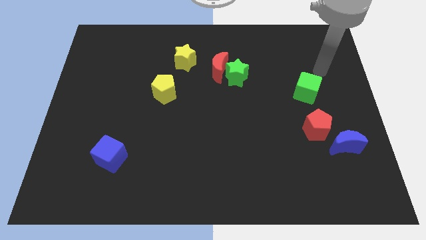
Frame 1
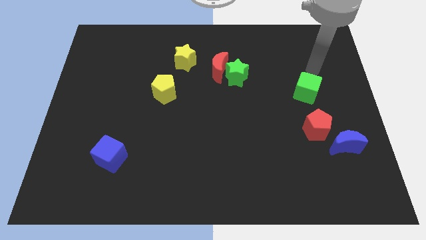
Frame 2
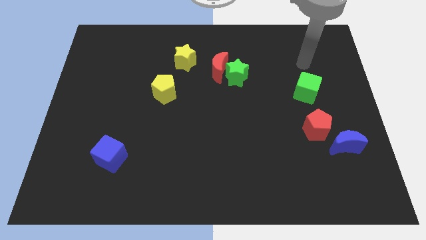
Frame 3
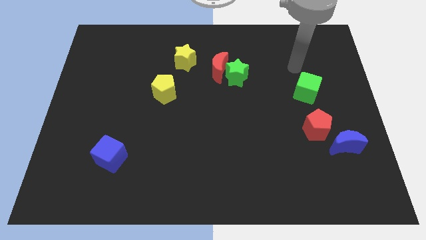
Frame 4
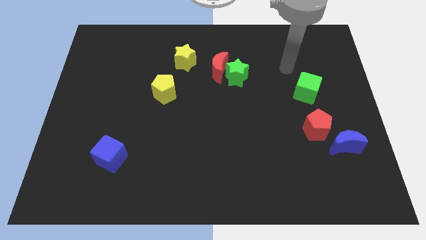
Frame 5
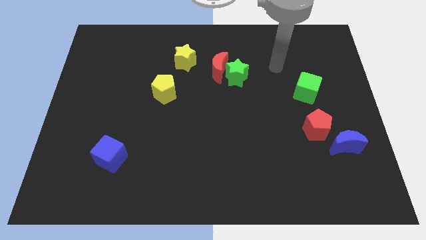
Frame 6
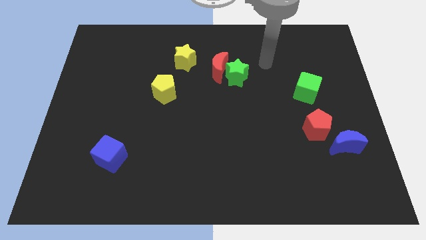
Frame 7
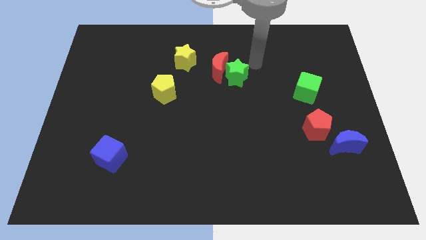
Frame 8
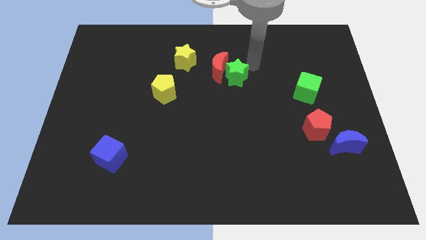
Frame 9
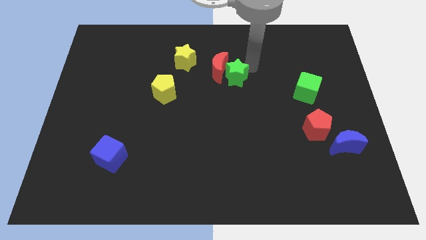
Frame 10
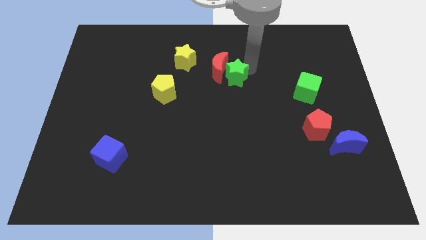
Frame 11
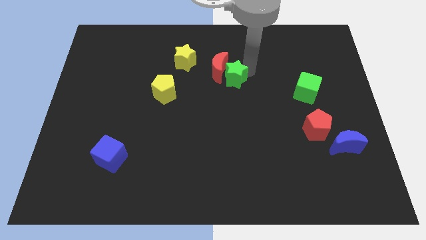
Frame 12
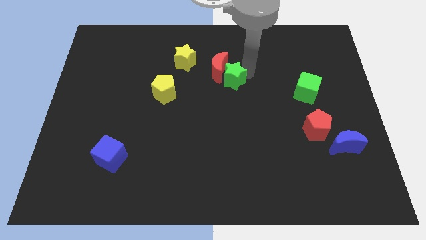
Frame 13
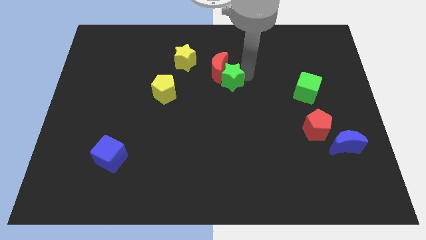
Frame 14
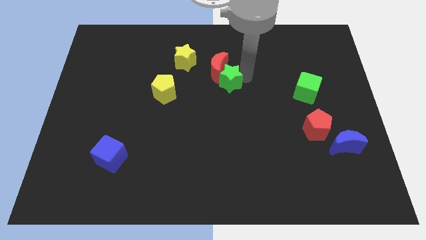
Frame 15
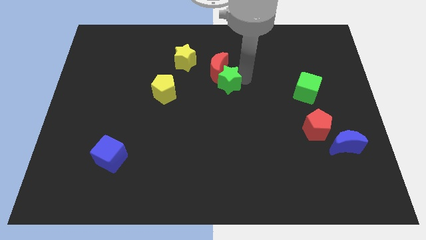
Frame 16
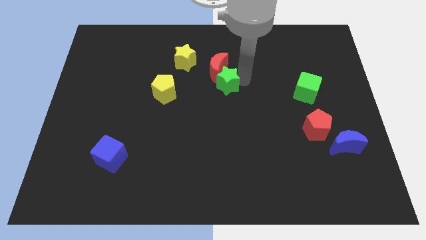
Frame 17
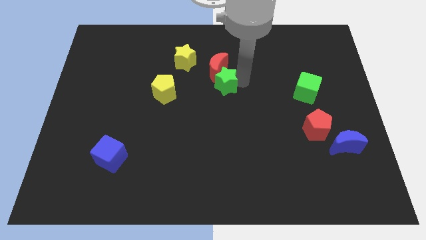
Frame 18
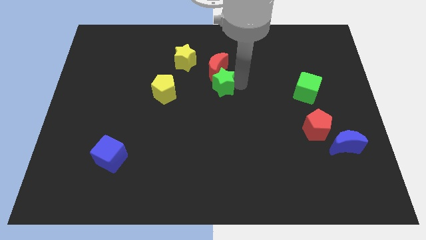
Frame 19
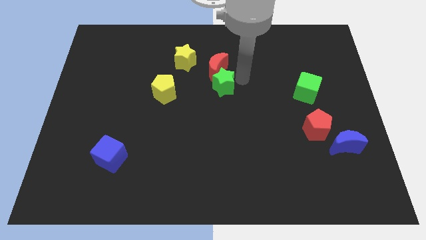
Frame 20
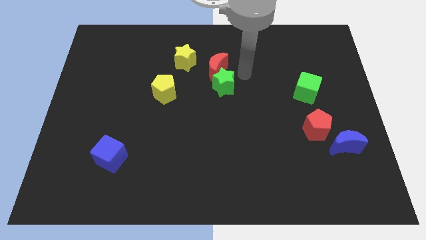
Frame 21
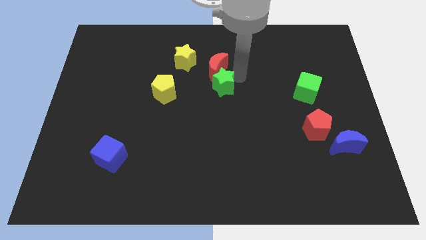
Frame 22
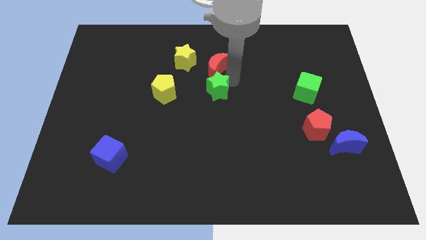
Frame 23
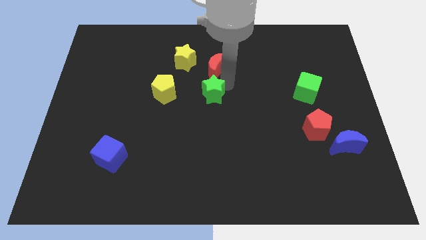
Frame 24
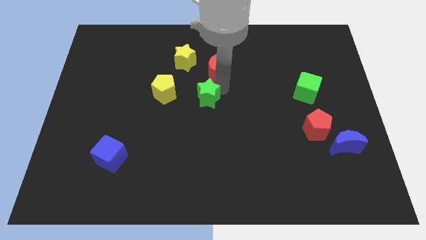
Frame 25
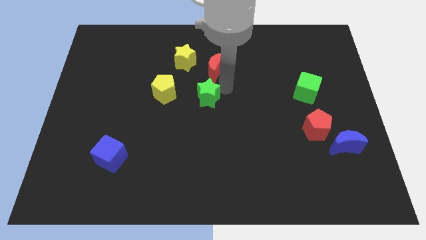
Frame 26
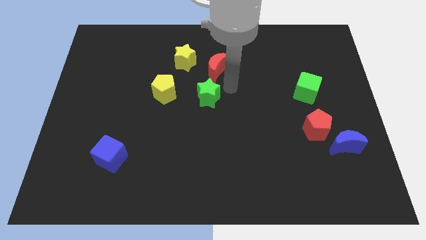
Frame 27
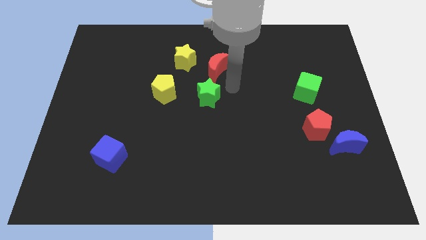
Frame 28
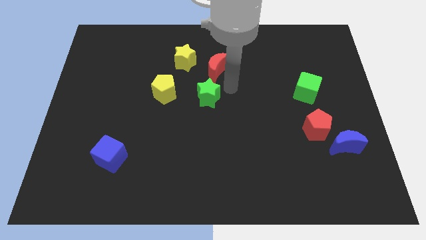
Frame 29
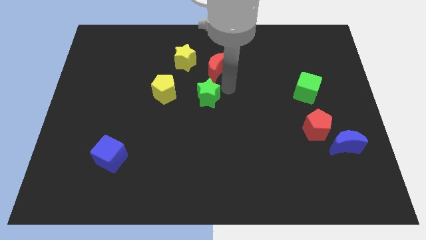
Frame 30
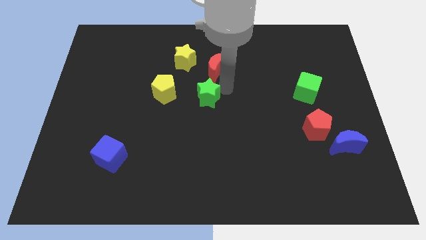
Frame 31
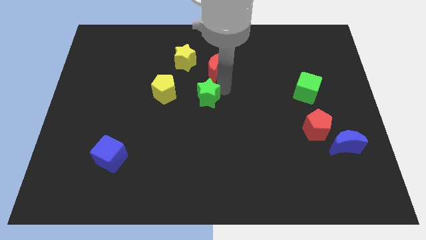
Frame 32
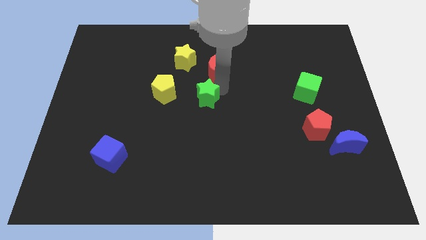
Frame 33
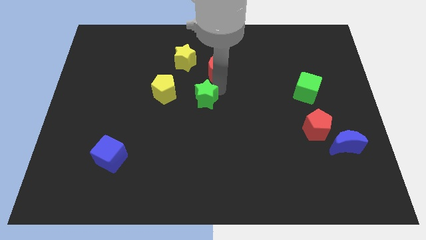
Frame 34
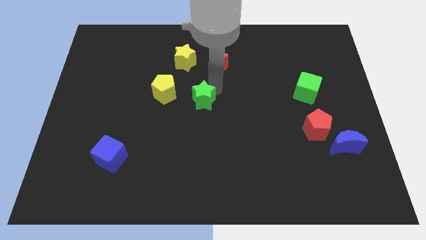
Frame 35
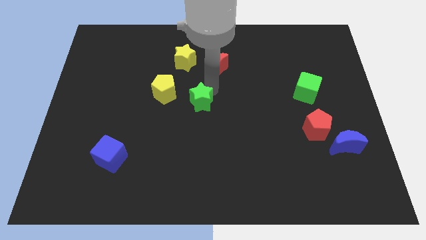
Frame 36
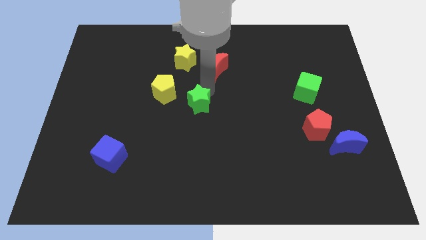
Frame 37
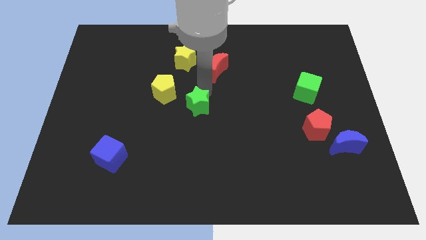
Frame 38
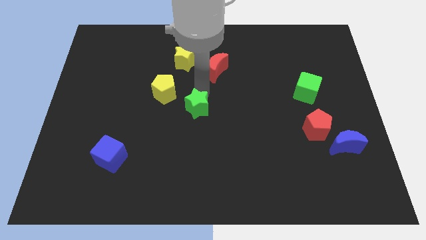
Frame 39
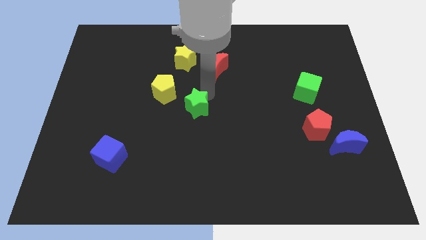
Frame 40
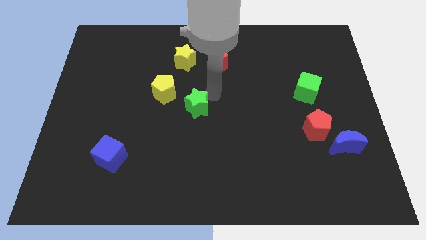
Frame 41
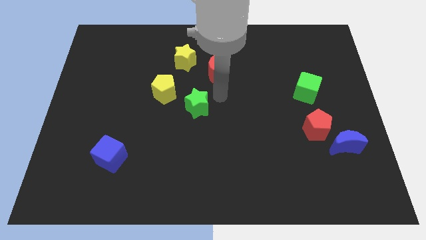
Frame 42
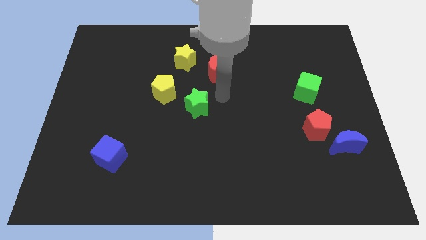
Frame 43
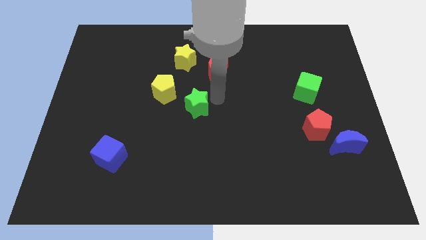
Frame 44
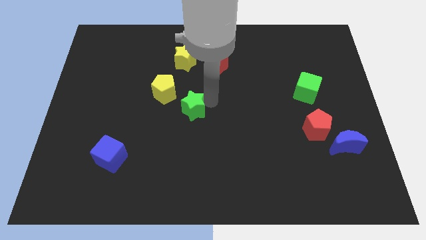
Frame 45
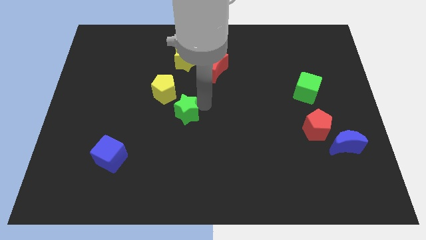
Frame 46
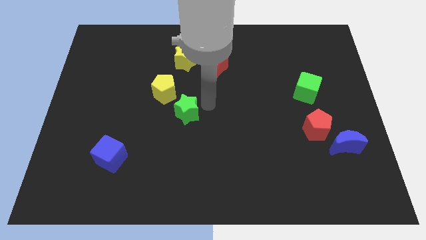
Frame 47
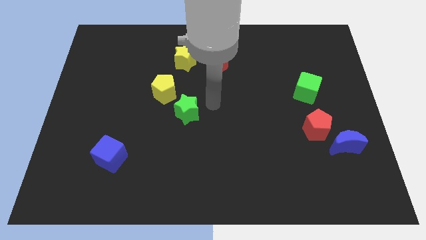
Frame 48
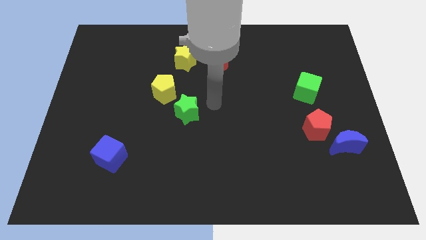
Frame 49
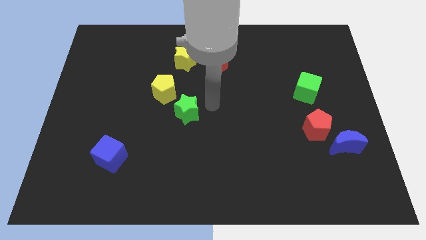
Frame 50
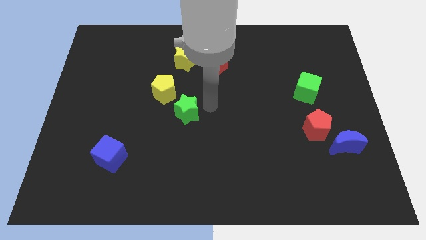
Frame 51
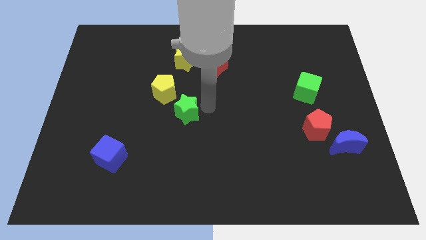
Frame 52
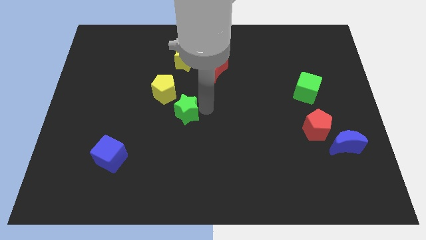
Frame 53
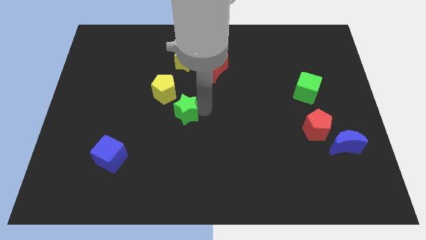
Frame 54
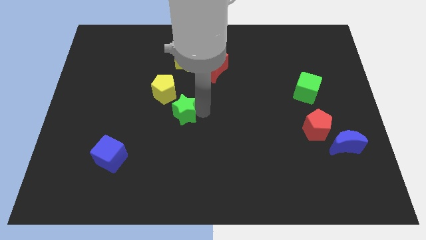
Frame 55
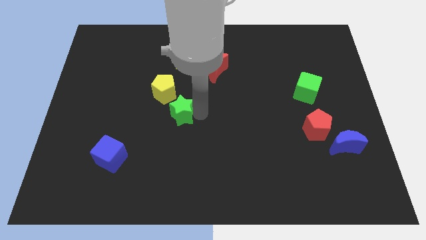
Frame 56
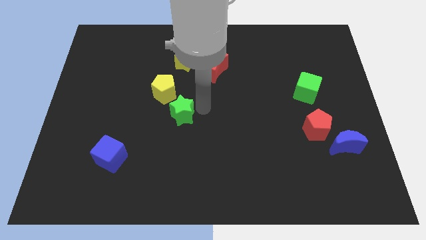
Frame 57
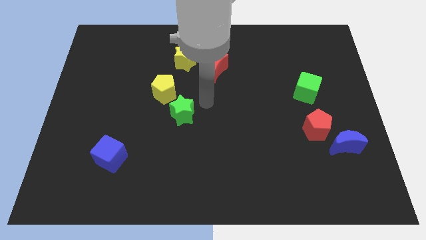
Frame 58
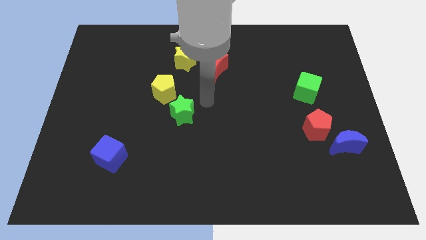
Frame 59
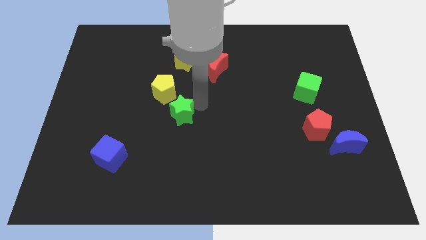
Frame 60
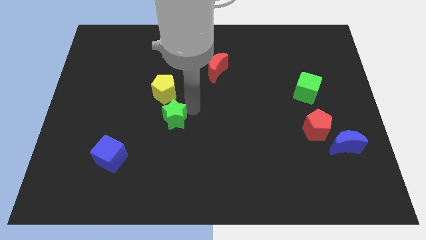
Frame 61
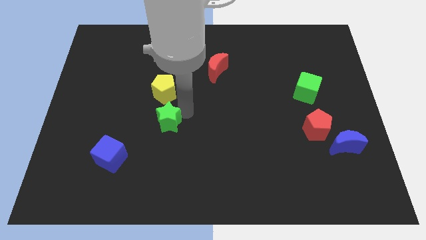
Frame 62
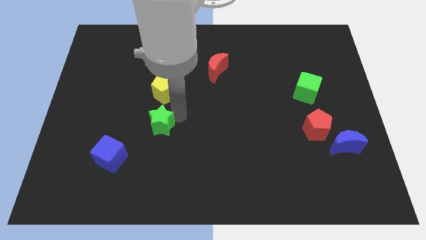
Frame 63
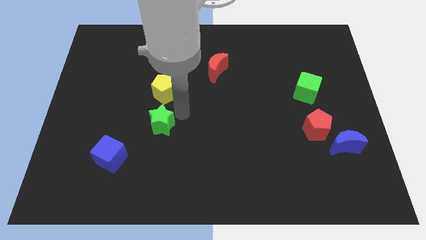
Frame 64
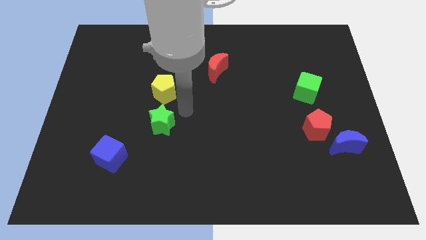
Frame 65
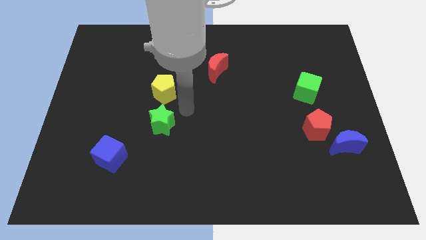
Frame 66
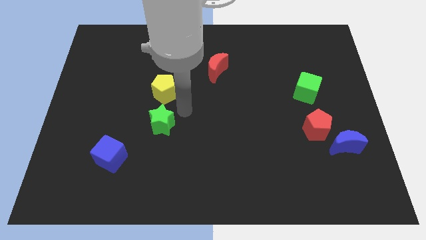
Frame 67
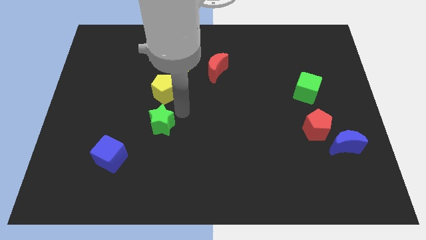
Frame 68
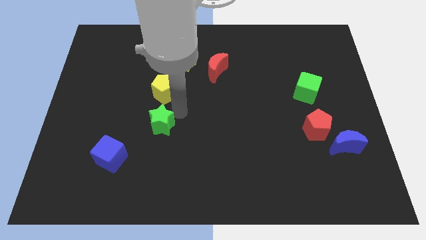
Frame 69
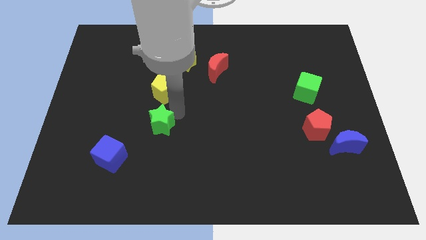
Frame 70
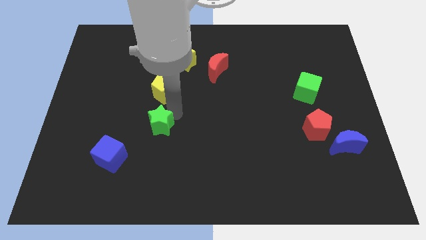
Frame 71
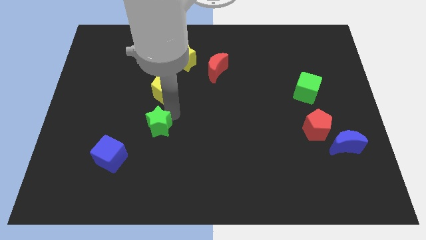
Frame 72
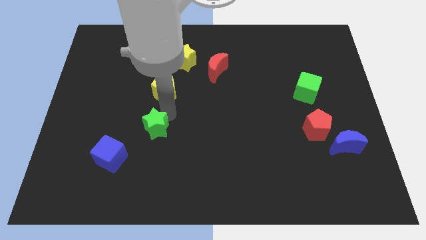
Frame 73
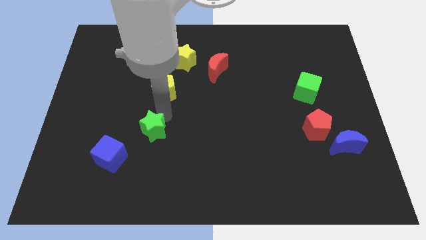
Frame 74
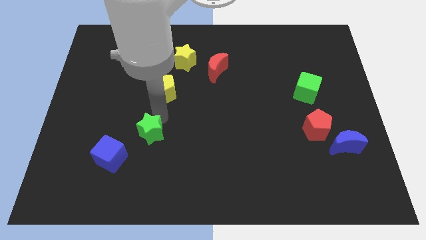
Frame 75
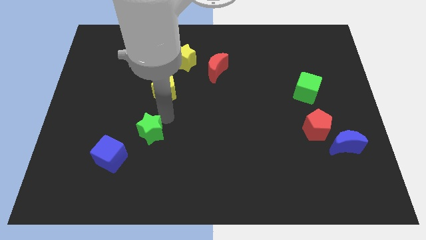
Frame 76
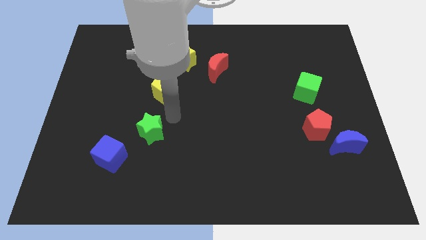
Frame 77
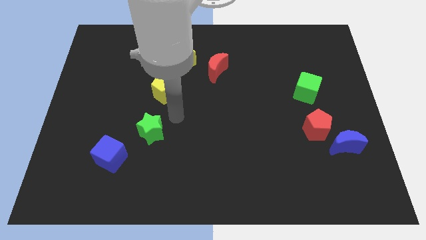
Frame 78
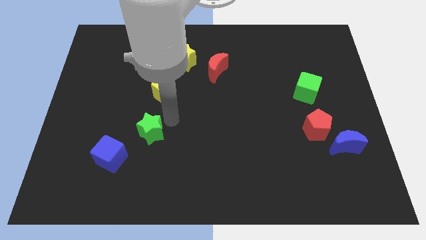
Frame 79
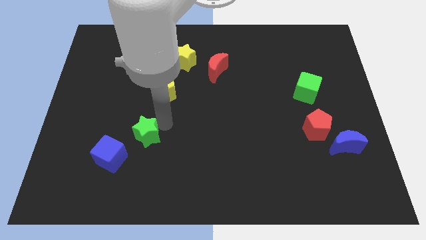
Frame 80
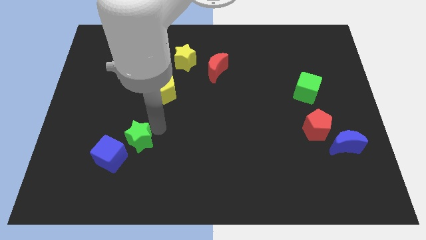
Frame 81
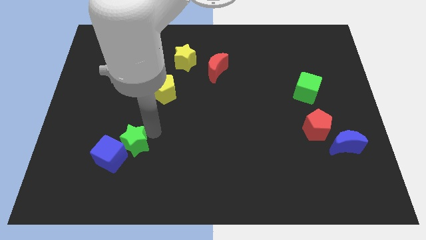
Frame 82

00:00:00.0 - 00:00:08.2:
slide the green star to the blue cube
